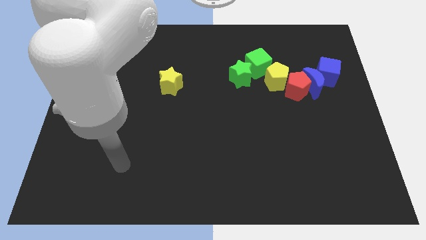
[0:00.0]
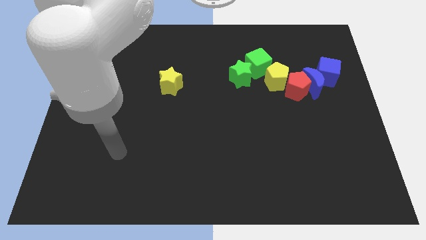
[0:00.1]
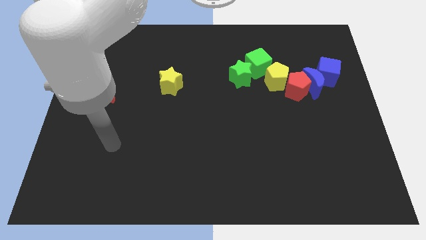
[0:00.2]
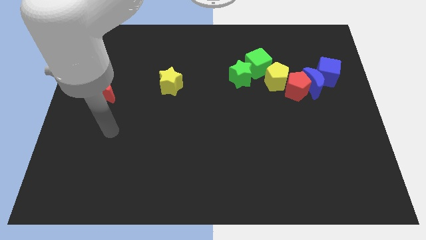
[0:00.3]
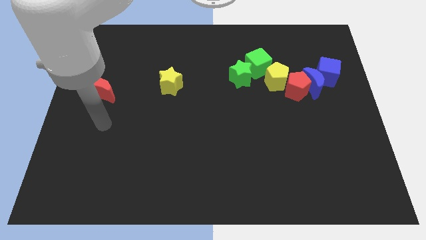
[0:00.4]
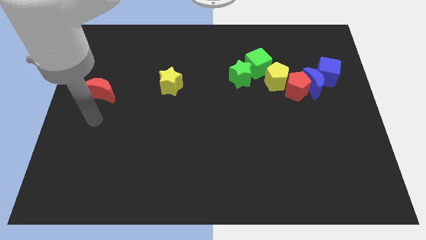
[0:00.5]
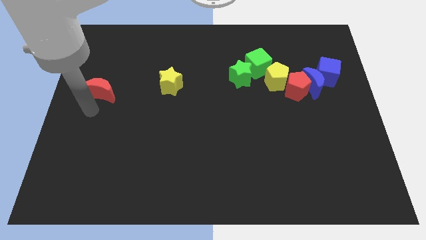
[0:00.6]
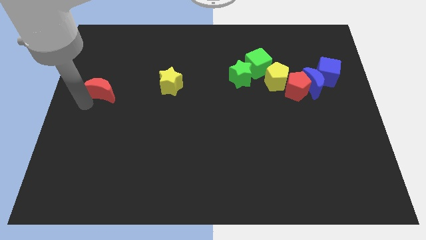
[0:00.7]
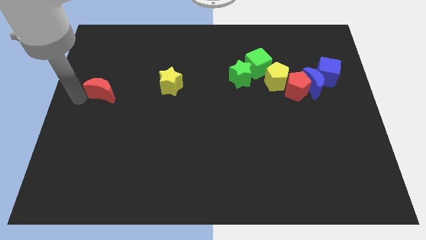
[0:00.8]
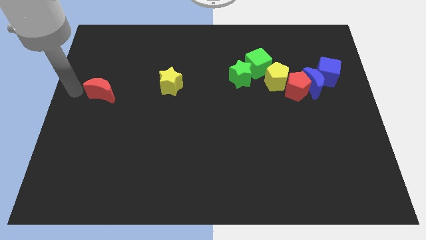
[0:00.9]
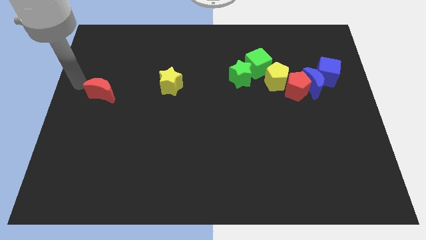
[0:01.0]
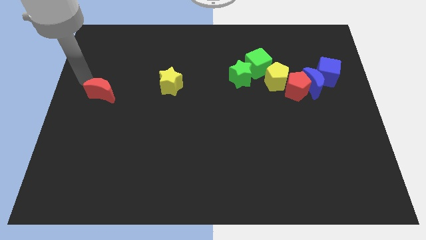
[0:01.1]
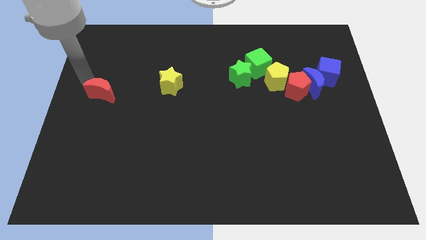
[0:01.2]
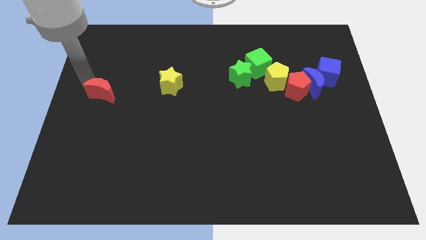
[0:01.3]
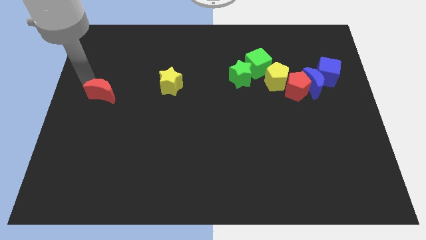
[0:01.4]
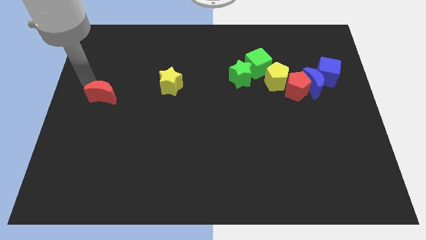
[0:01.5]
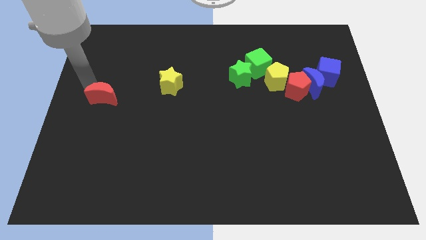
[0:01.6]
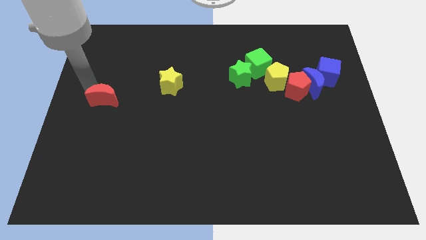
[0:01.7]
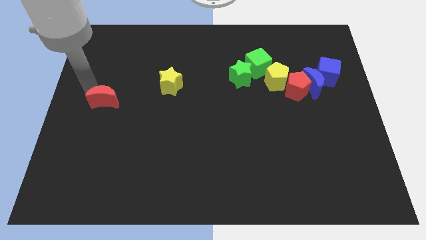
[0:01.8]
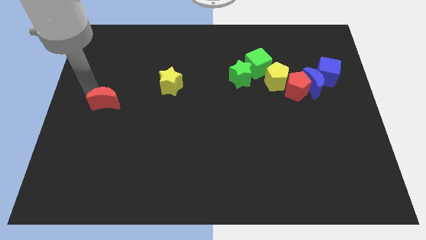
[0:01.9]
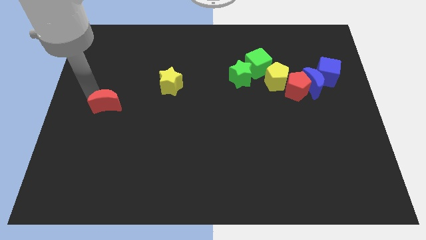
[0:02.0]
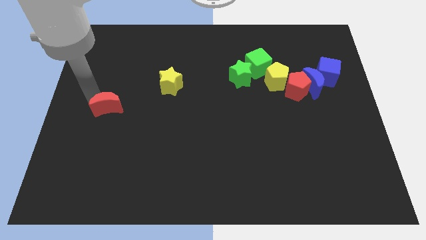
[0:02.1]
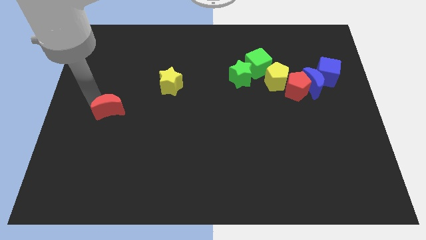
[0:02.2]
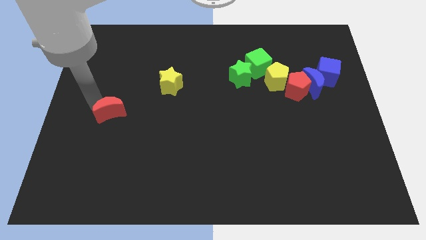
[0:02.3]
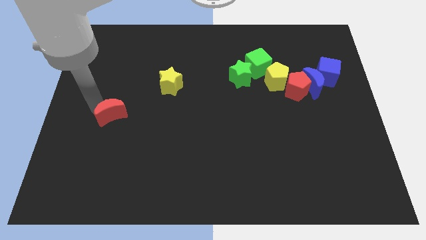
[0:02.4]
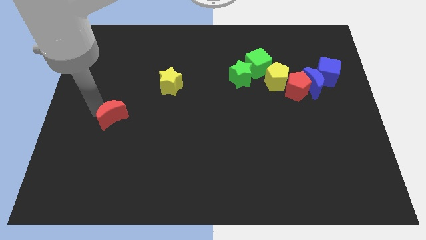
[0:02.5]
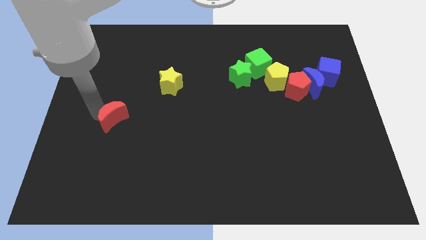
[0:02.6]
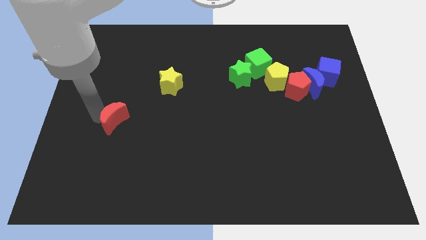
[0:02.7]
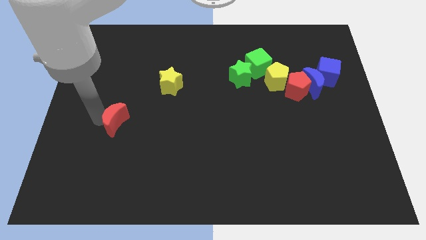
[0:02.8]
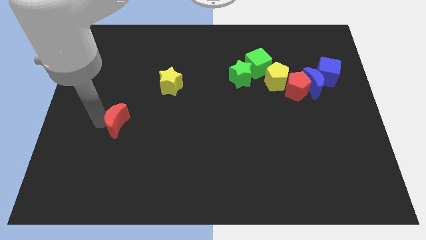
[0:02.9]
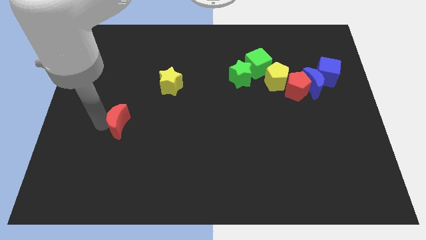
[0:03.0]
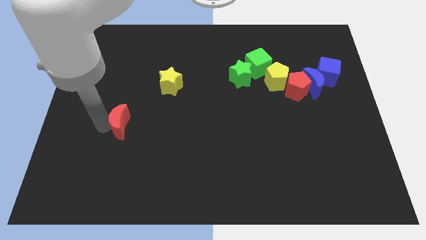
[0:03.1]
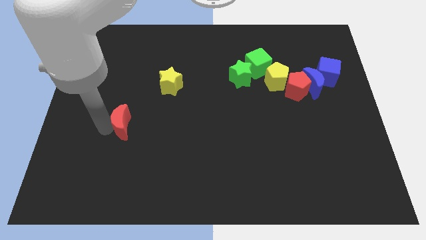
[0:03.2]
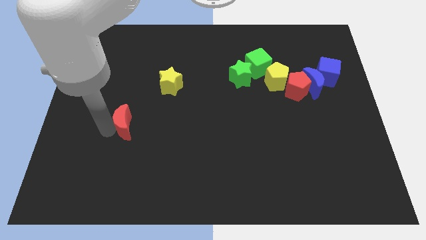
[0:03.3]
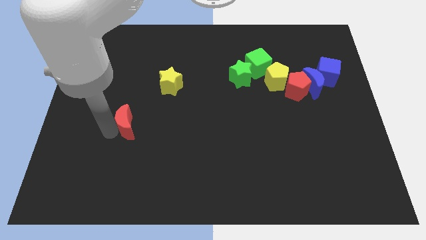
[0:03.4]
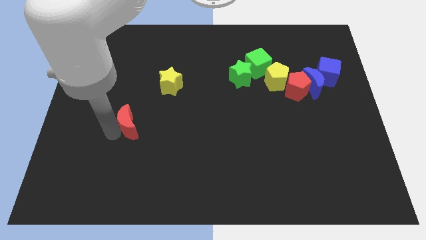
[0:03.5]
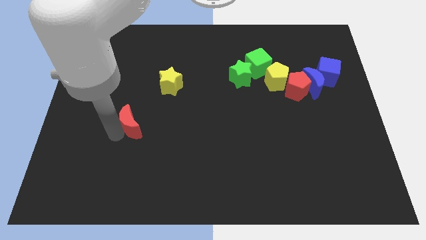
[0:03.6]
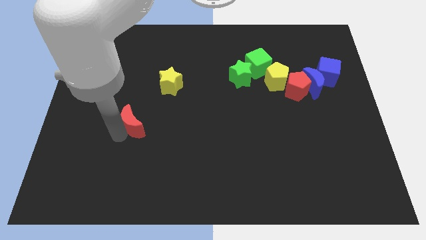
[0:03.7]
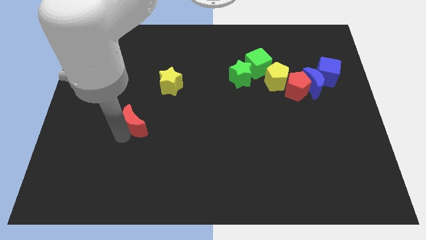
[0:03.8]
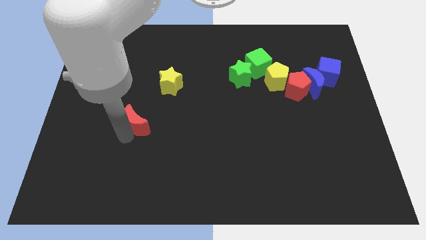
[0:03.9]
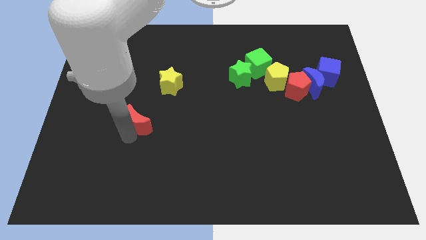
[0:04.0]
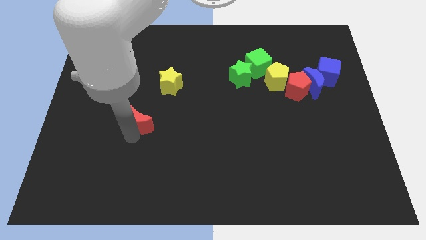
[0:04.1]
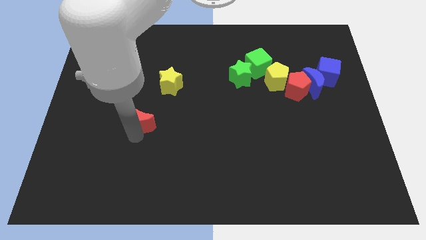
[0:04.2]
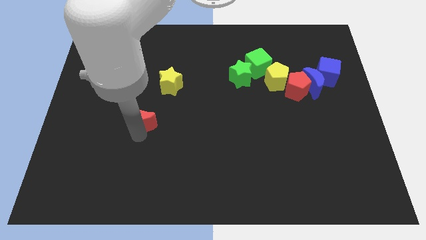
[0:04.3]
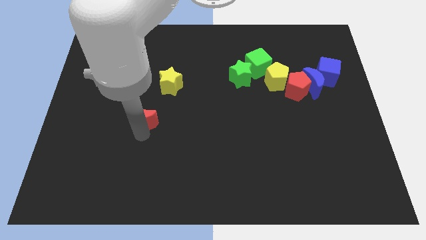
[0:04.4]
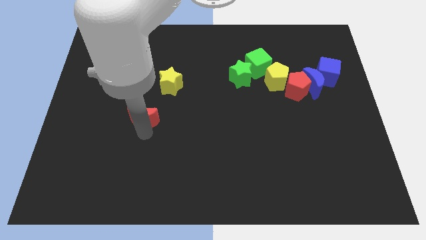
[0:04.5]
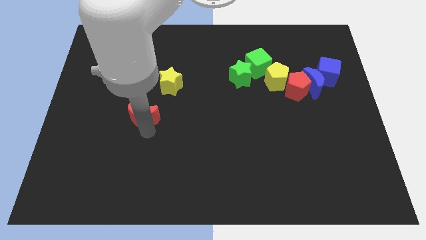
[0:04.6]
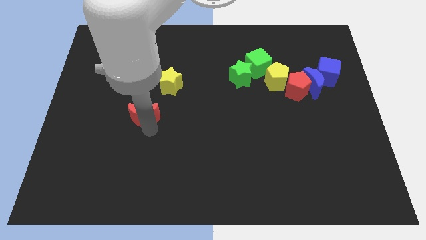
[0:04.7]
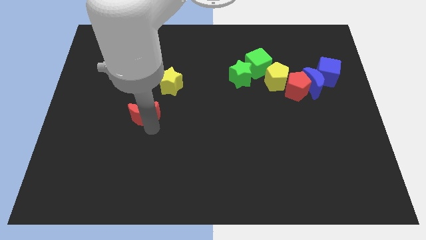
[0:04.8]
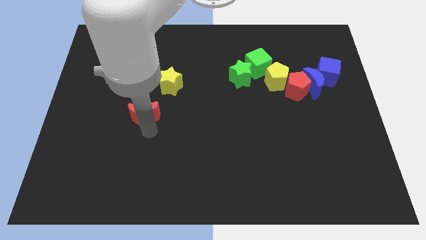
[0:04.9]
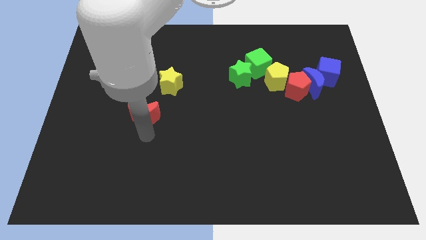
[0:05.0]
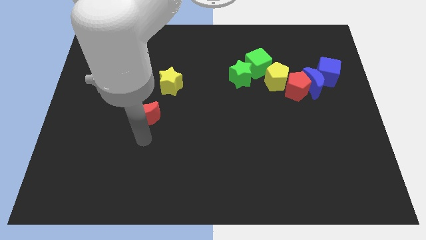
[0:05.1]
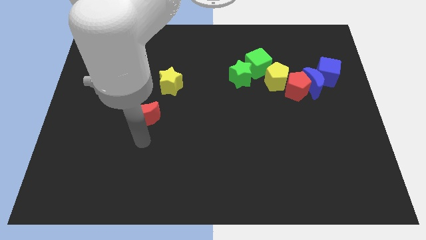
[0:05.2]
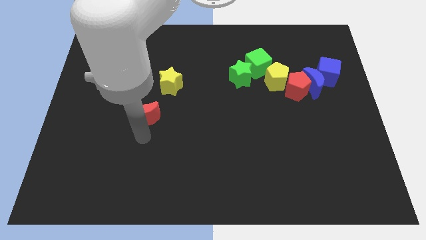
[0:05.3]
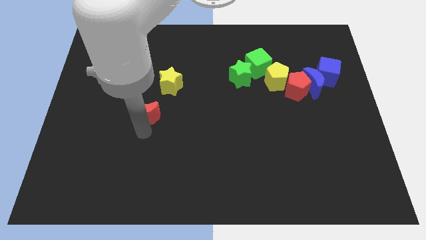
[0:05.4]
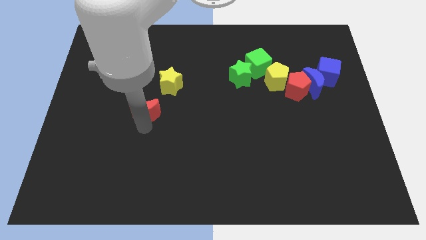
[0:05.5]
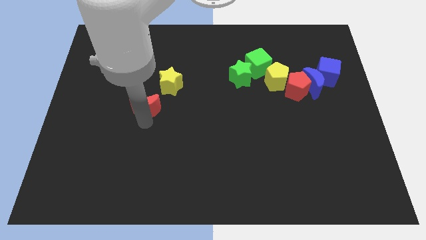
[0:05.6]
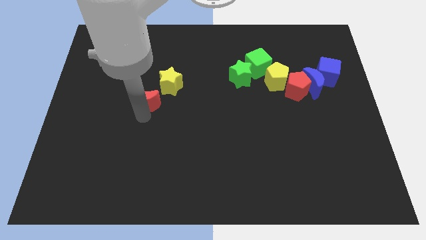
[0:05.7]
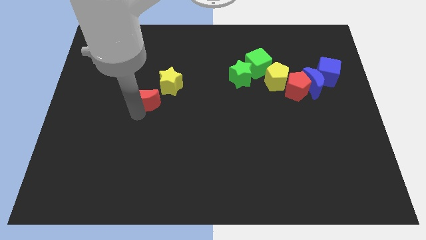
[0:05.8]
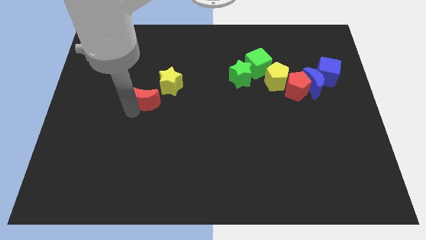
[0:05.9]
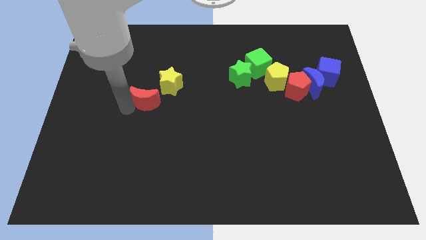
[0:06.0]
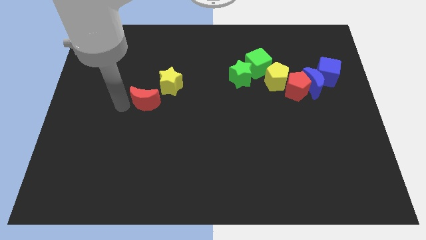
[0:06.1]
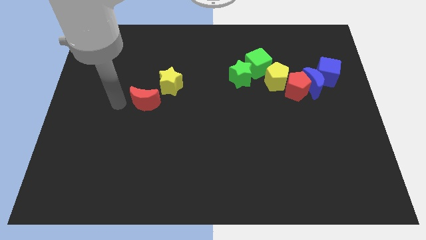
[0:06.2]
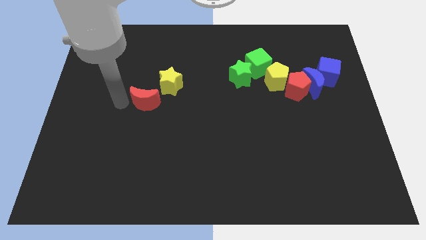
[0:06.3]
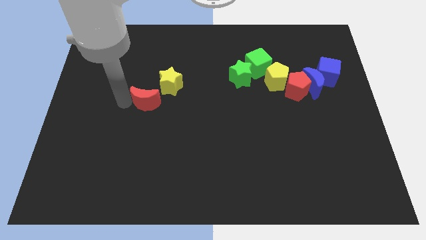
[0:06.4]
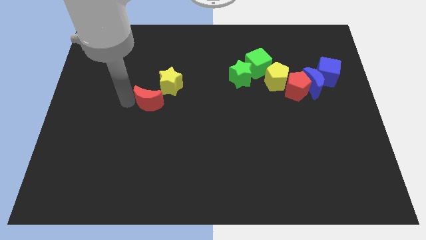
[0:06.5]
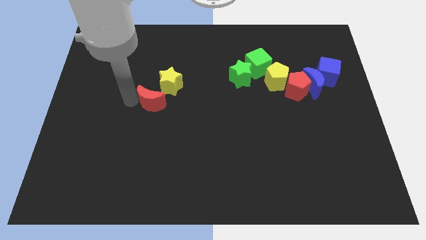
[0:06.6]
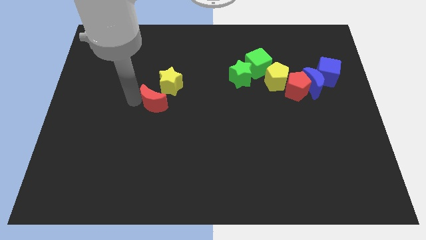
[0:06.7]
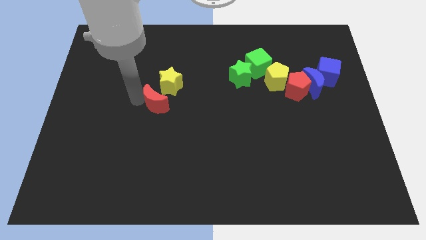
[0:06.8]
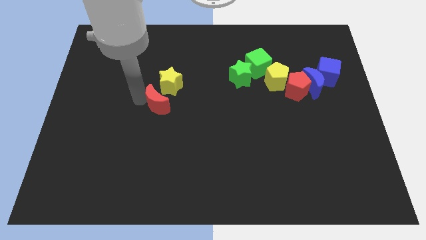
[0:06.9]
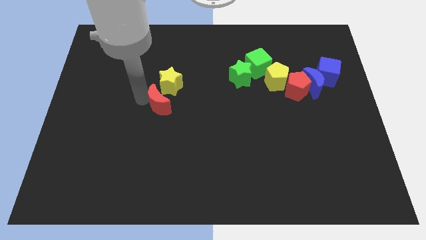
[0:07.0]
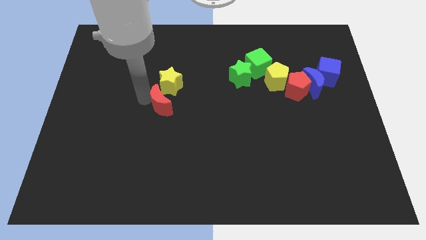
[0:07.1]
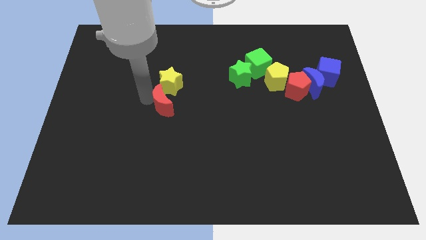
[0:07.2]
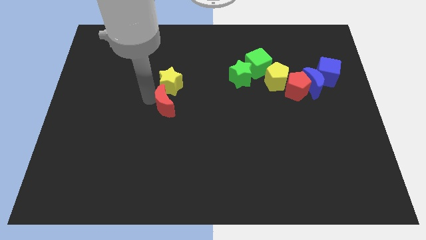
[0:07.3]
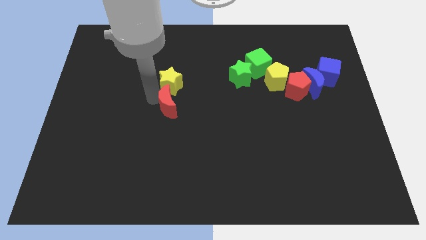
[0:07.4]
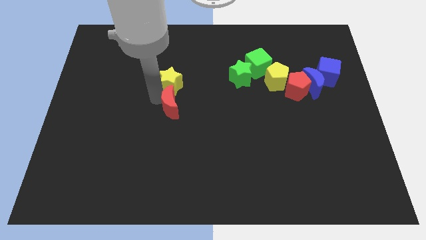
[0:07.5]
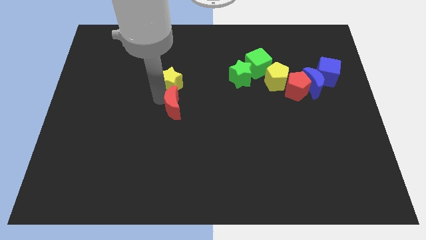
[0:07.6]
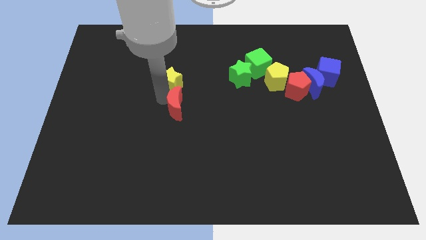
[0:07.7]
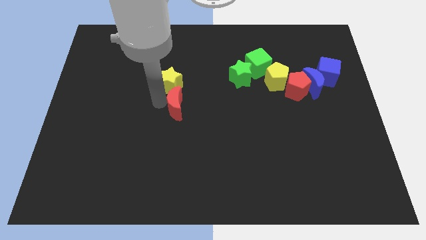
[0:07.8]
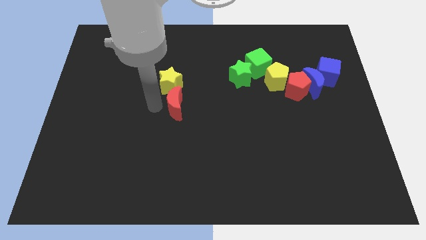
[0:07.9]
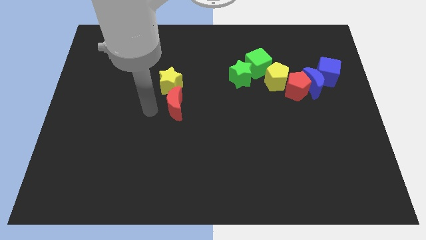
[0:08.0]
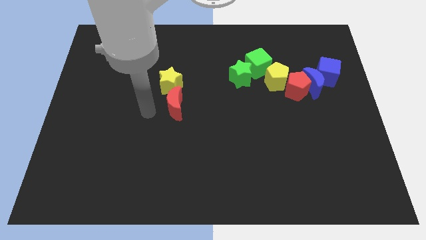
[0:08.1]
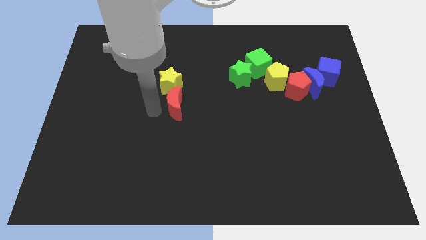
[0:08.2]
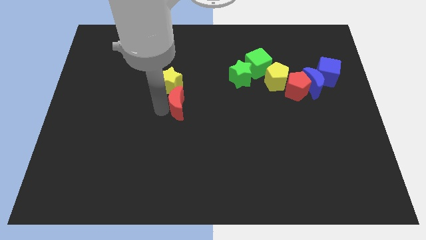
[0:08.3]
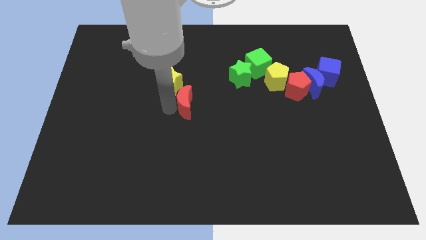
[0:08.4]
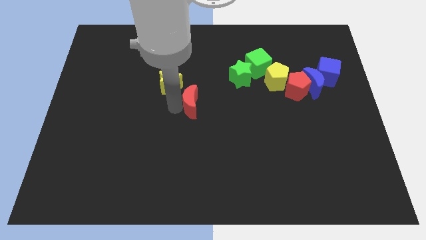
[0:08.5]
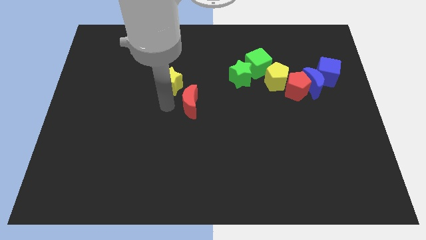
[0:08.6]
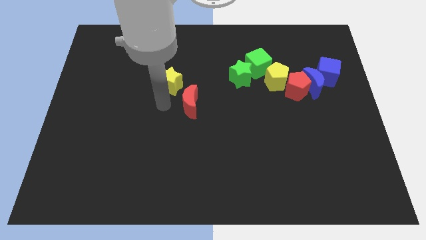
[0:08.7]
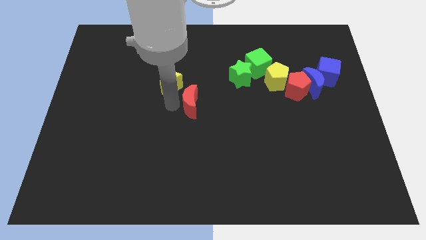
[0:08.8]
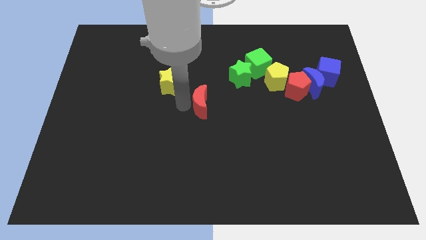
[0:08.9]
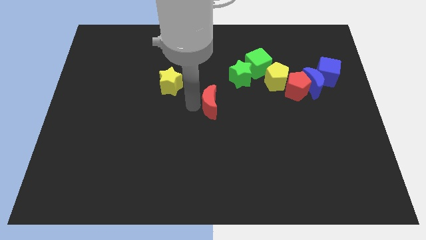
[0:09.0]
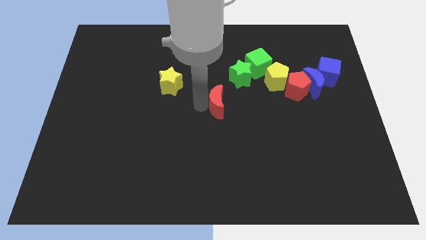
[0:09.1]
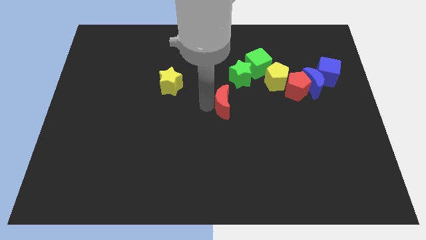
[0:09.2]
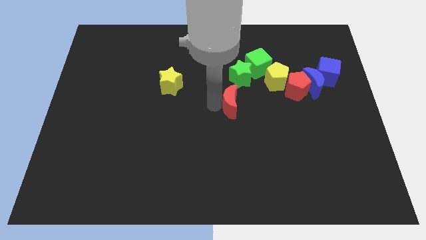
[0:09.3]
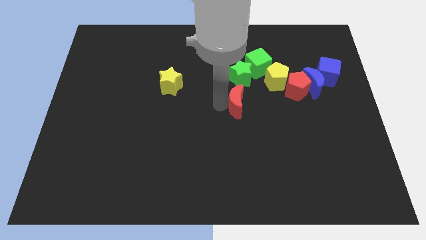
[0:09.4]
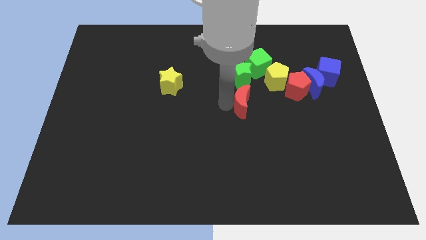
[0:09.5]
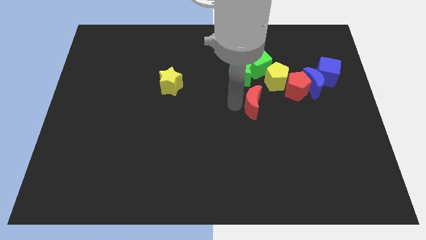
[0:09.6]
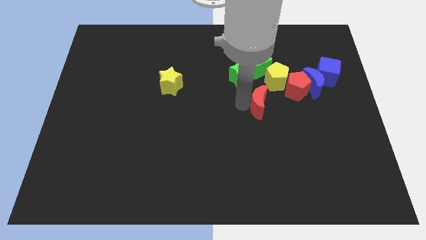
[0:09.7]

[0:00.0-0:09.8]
push the red moon to the bottom left side of the red pentagon
